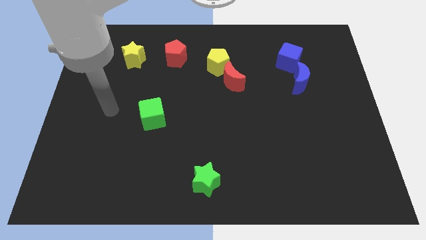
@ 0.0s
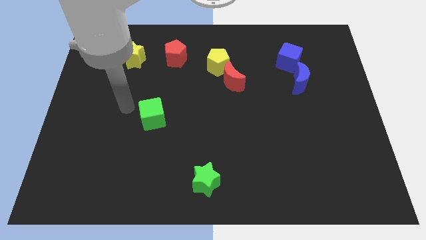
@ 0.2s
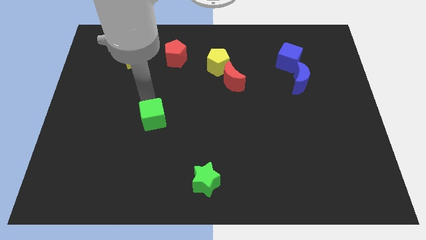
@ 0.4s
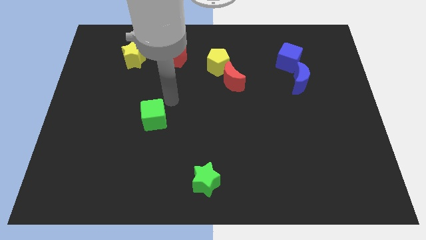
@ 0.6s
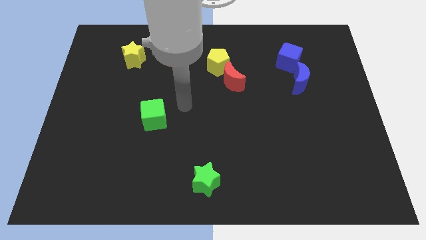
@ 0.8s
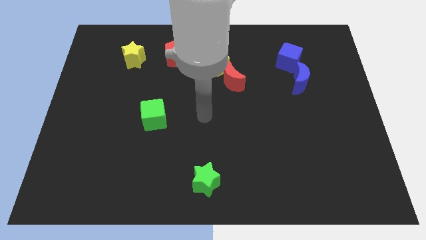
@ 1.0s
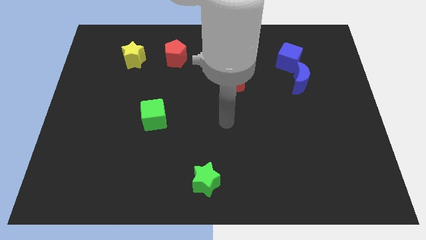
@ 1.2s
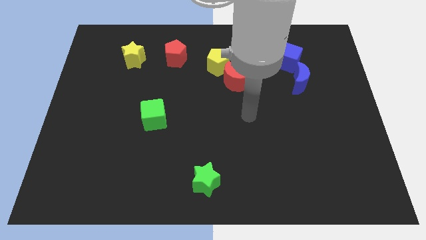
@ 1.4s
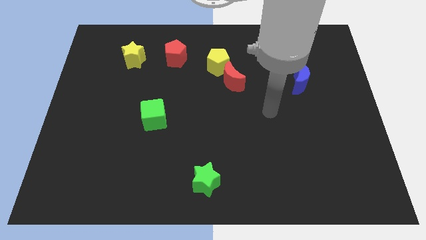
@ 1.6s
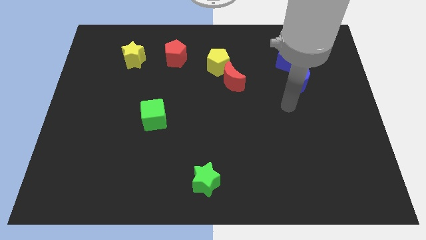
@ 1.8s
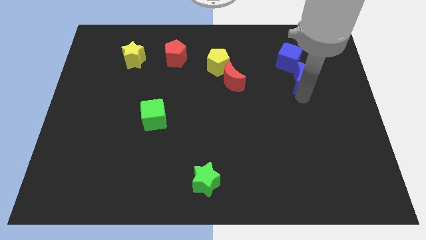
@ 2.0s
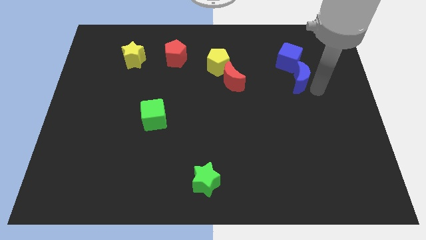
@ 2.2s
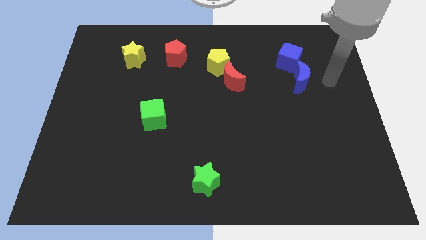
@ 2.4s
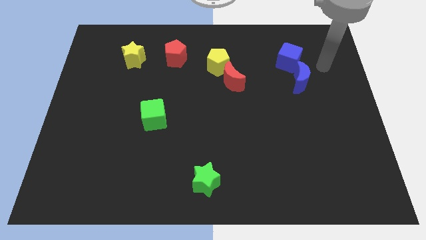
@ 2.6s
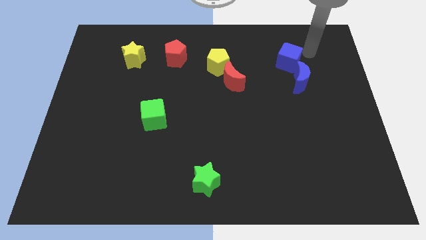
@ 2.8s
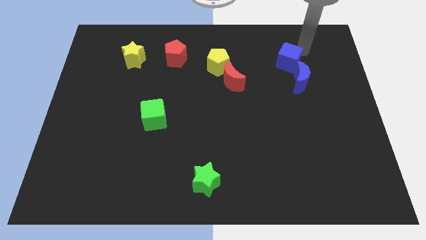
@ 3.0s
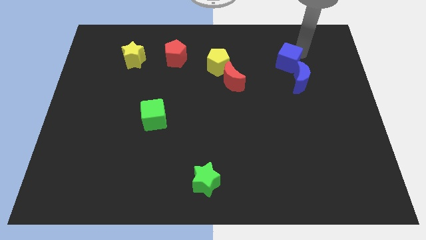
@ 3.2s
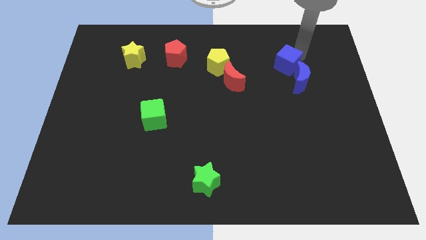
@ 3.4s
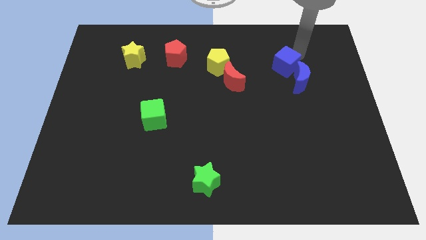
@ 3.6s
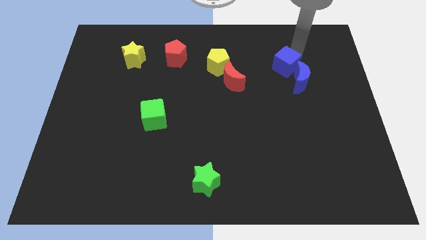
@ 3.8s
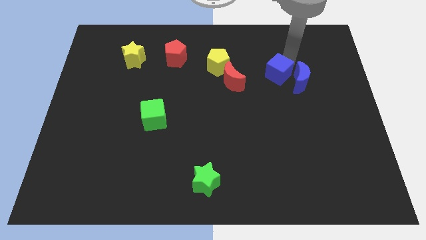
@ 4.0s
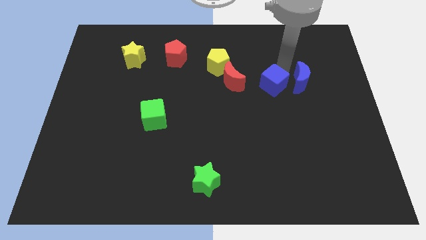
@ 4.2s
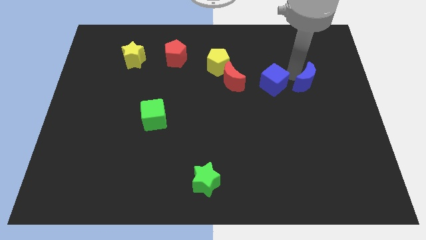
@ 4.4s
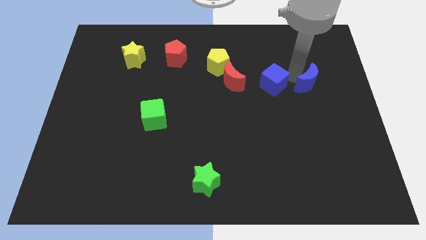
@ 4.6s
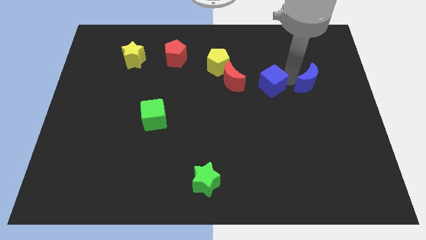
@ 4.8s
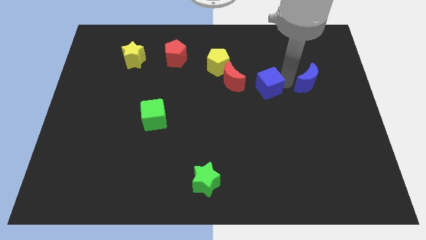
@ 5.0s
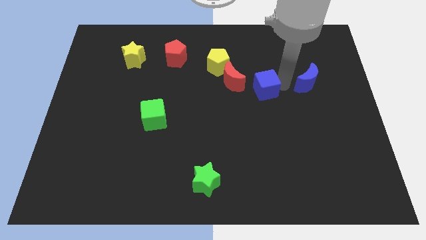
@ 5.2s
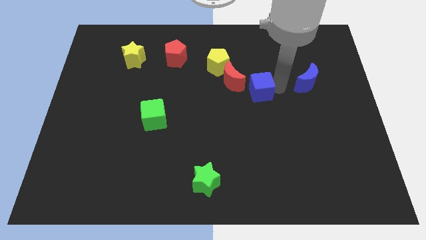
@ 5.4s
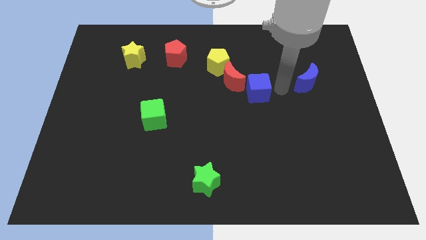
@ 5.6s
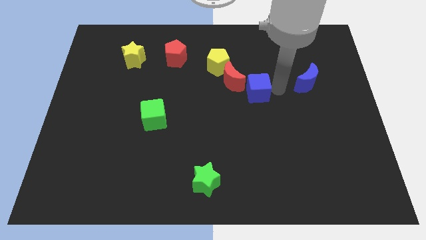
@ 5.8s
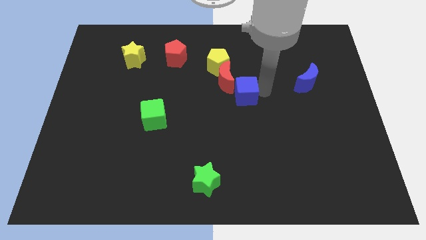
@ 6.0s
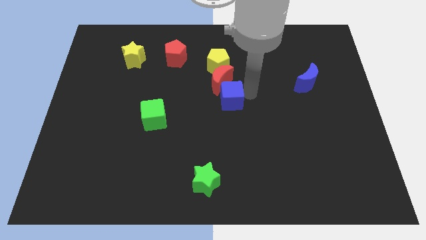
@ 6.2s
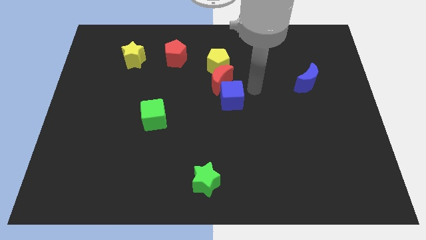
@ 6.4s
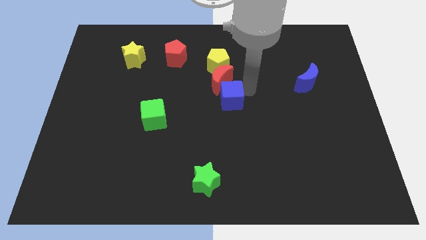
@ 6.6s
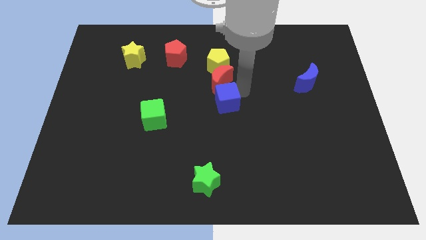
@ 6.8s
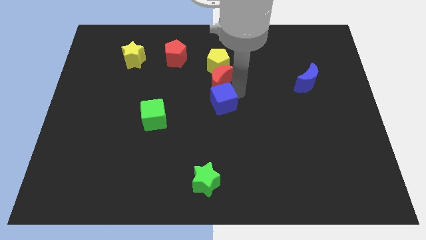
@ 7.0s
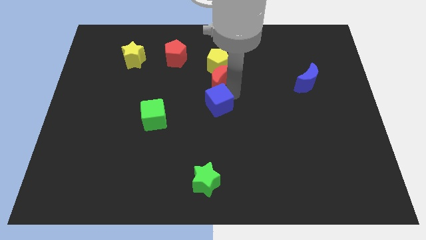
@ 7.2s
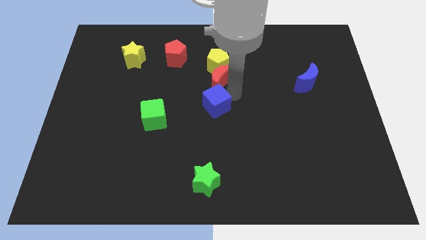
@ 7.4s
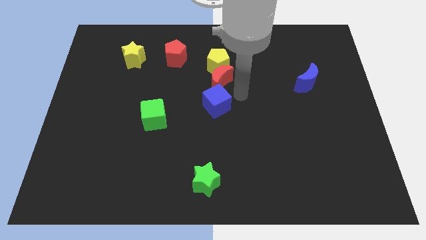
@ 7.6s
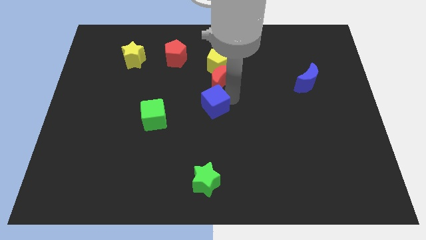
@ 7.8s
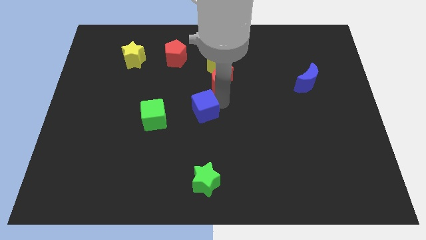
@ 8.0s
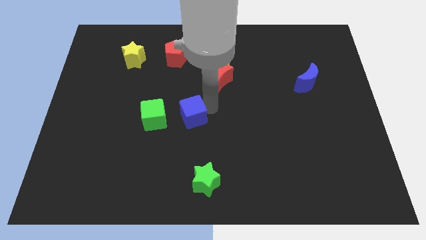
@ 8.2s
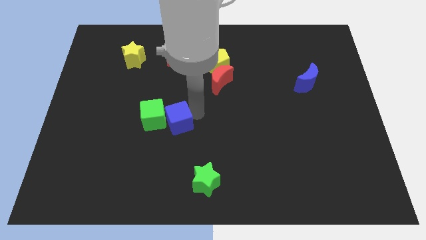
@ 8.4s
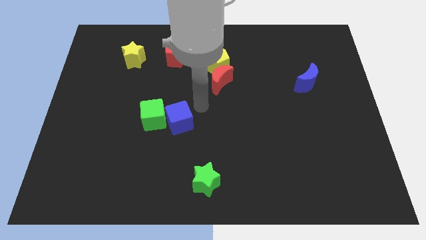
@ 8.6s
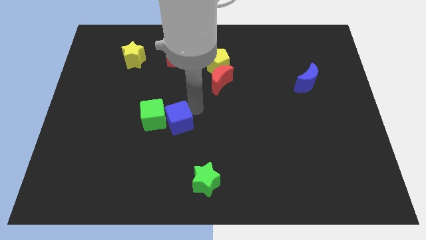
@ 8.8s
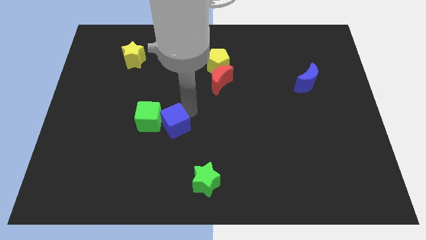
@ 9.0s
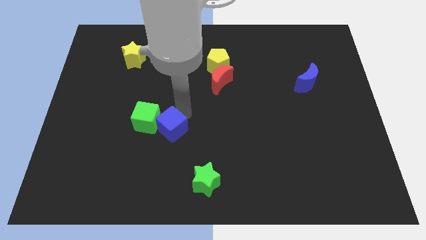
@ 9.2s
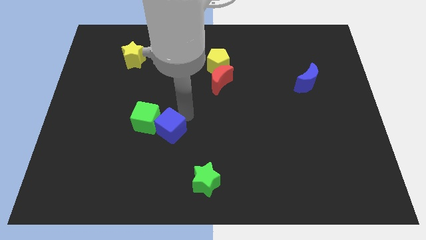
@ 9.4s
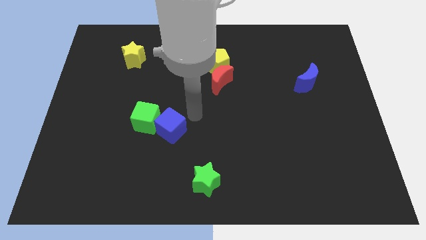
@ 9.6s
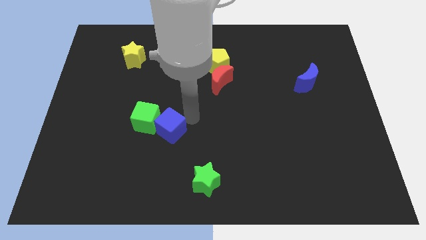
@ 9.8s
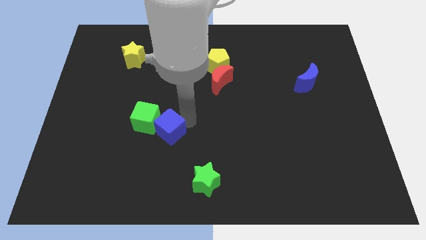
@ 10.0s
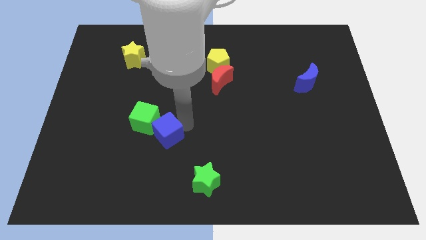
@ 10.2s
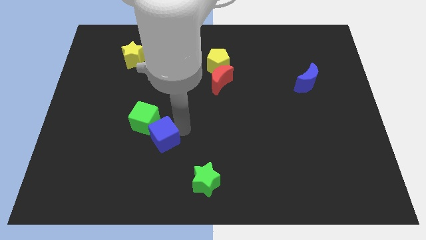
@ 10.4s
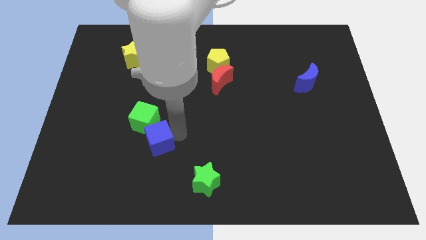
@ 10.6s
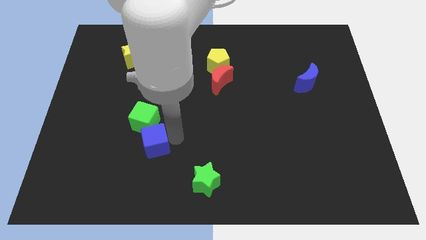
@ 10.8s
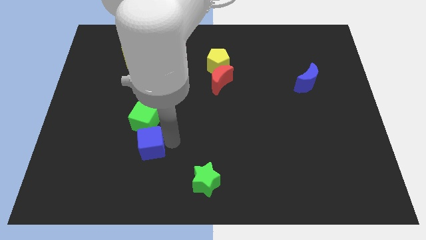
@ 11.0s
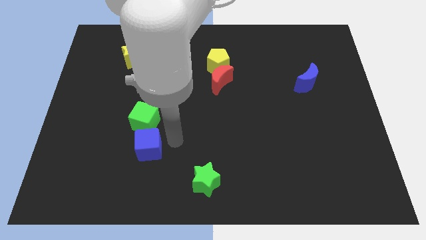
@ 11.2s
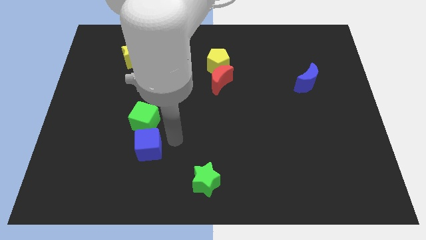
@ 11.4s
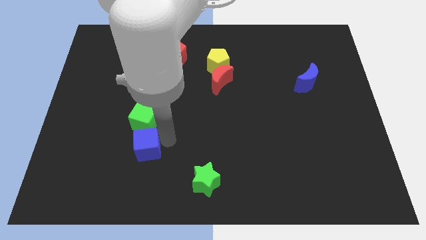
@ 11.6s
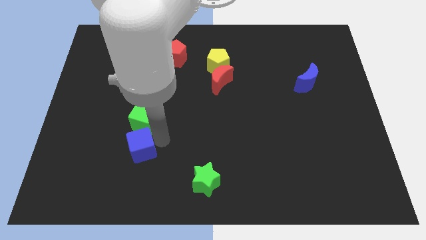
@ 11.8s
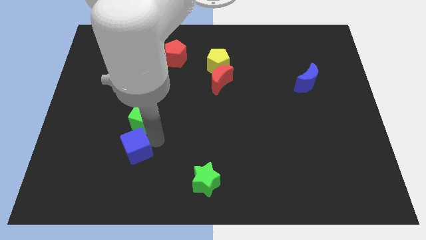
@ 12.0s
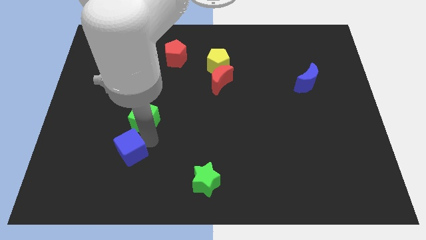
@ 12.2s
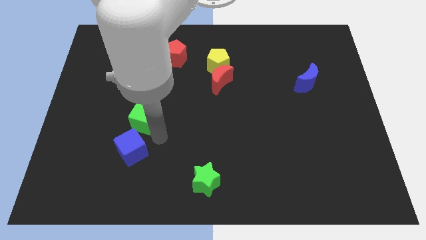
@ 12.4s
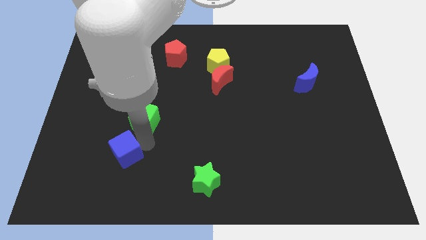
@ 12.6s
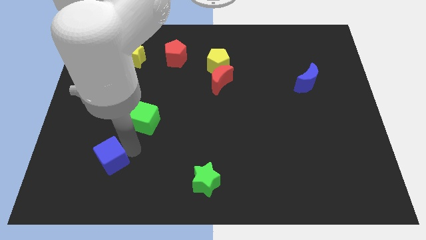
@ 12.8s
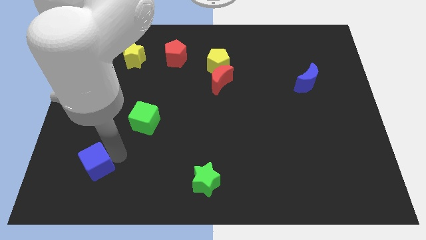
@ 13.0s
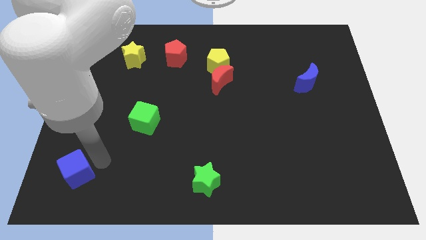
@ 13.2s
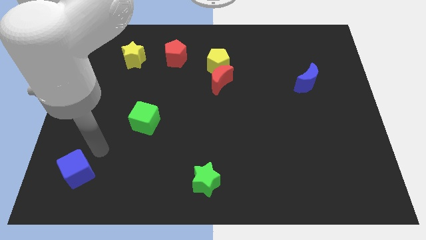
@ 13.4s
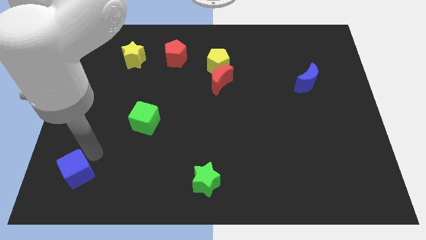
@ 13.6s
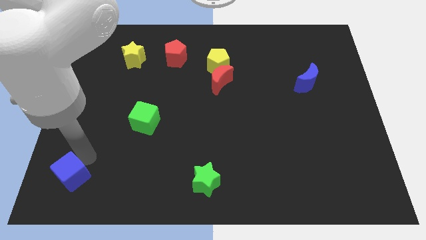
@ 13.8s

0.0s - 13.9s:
put the blue cube to the lower left corner
